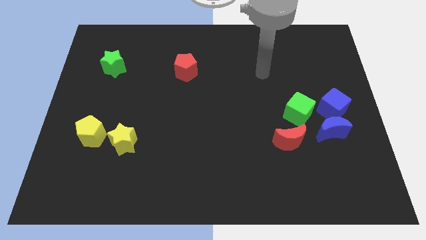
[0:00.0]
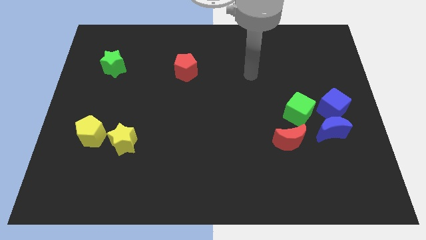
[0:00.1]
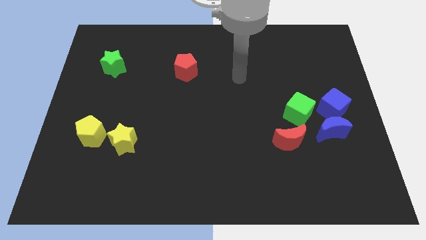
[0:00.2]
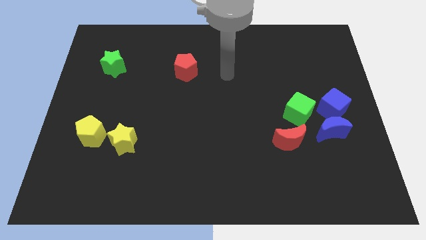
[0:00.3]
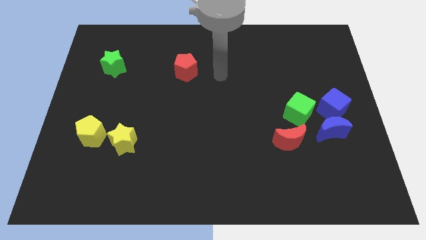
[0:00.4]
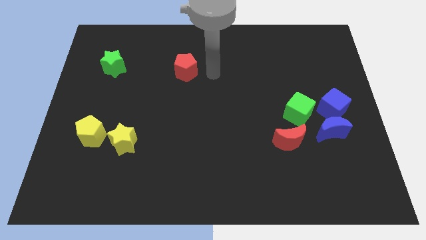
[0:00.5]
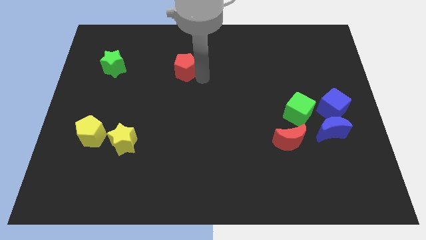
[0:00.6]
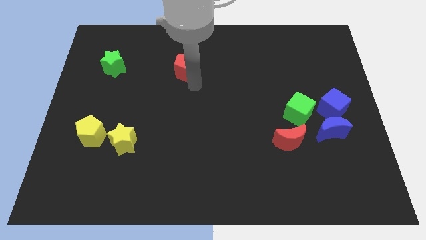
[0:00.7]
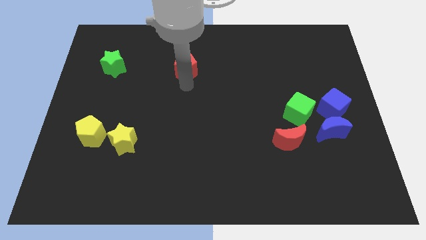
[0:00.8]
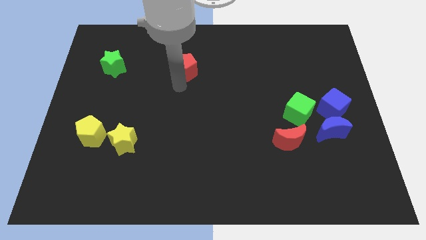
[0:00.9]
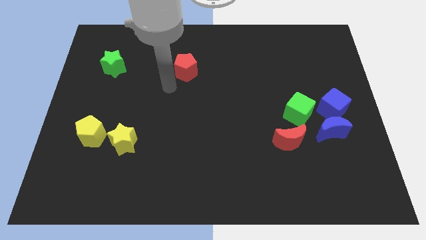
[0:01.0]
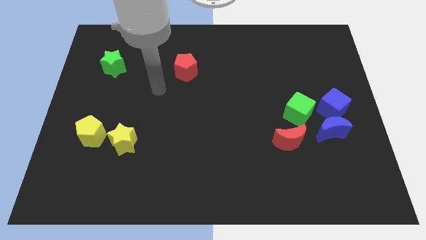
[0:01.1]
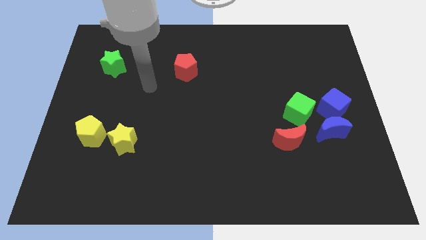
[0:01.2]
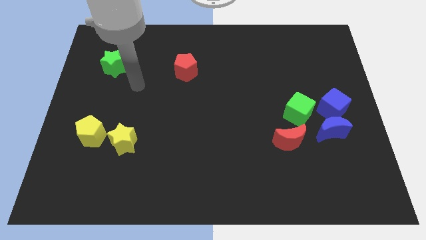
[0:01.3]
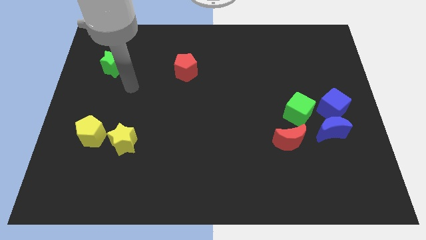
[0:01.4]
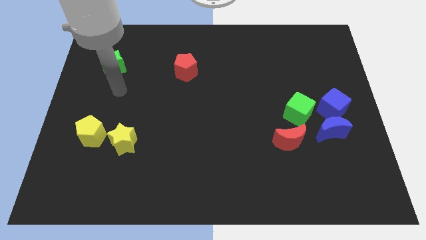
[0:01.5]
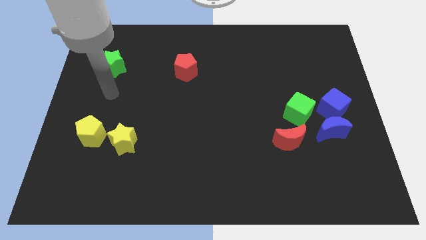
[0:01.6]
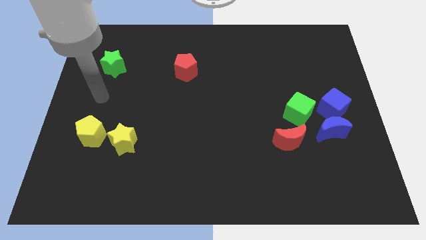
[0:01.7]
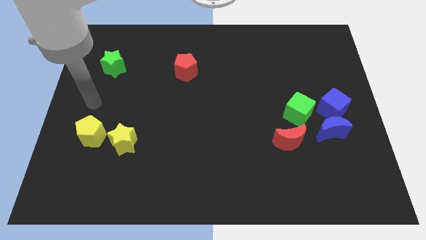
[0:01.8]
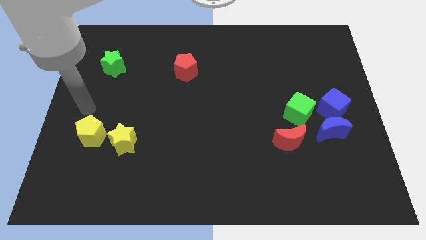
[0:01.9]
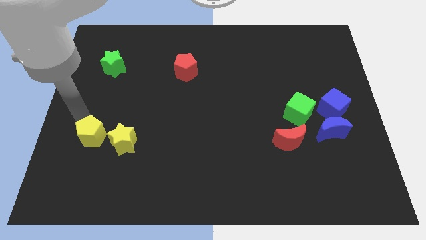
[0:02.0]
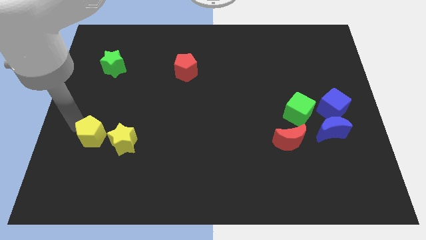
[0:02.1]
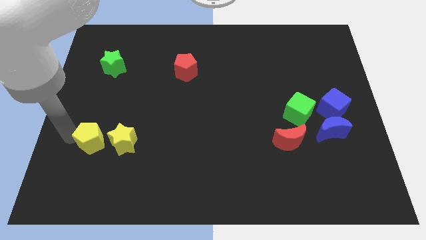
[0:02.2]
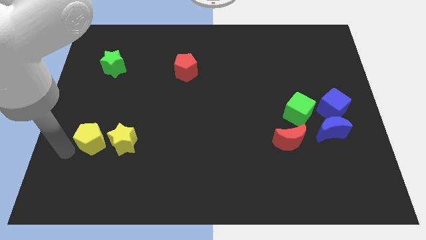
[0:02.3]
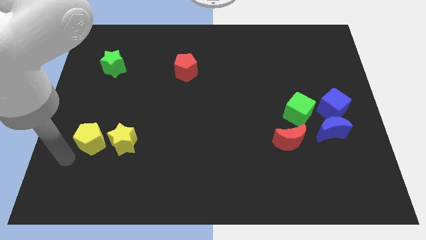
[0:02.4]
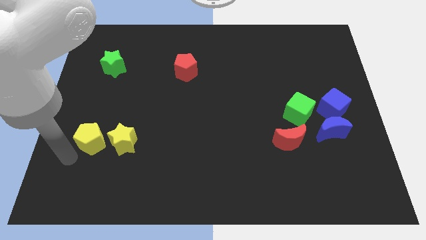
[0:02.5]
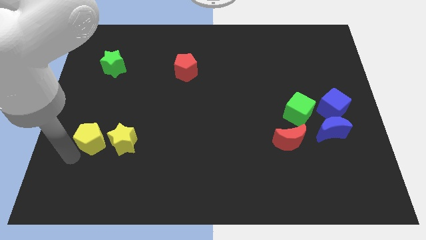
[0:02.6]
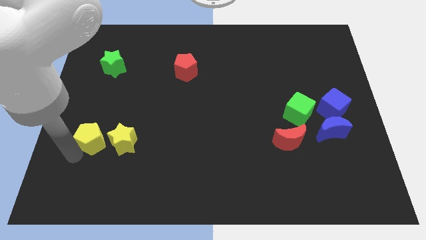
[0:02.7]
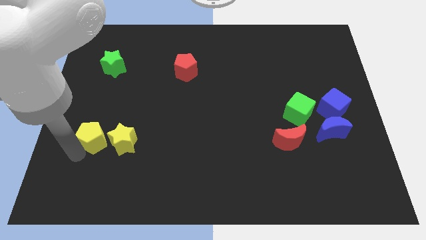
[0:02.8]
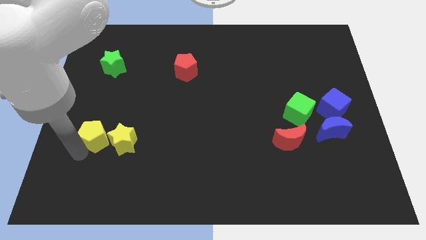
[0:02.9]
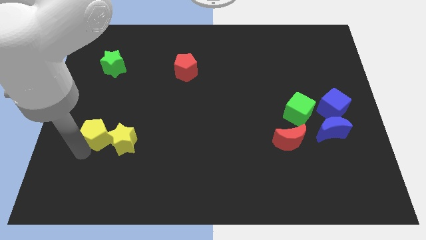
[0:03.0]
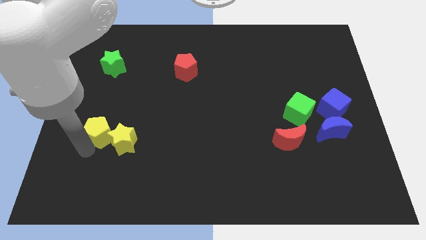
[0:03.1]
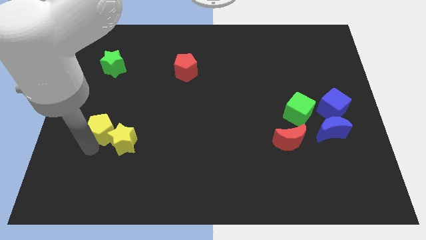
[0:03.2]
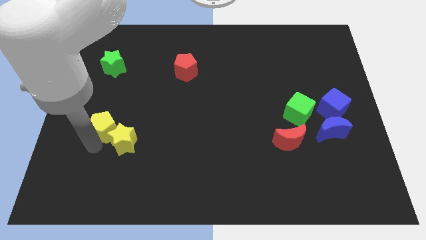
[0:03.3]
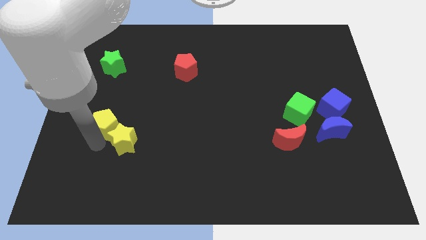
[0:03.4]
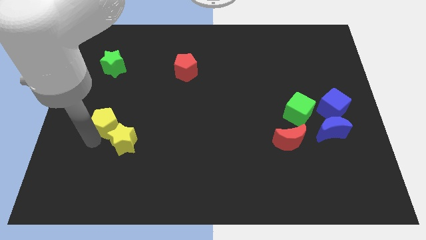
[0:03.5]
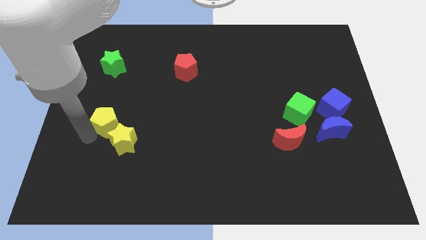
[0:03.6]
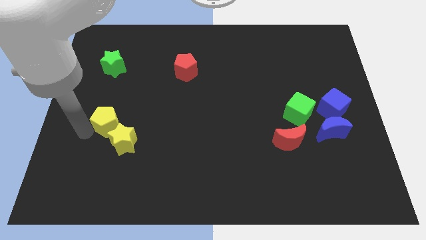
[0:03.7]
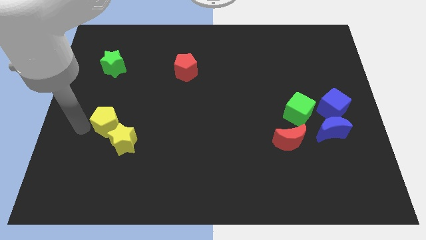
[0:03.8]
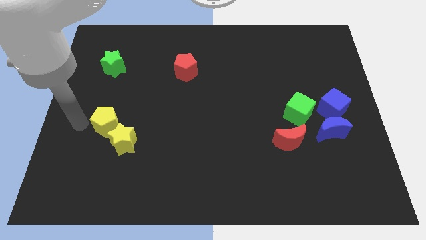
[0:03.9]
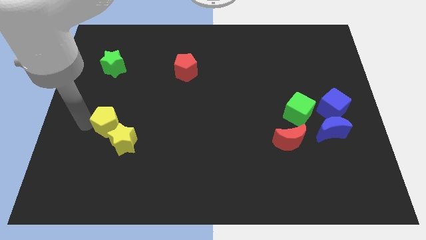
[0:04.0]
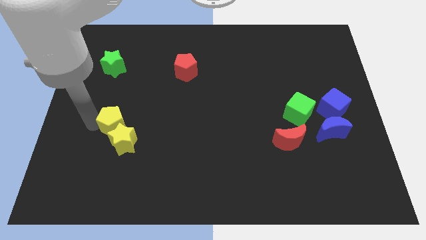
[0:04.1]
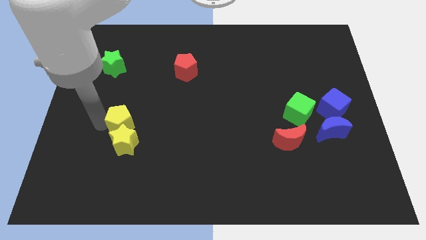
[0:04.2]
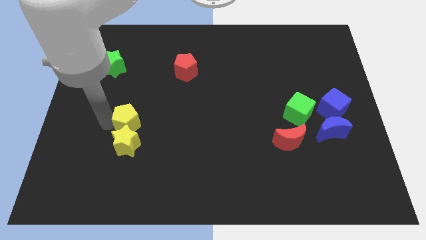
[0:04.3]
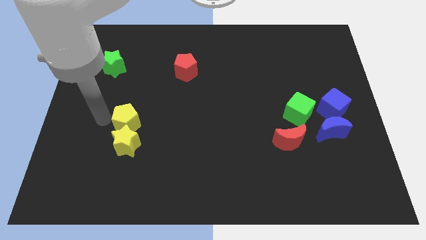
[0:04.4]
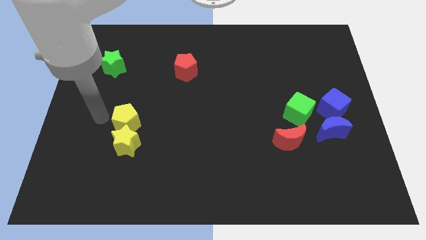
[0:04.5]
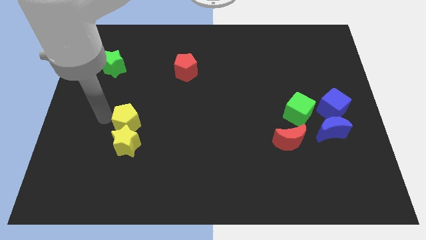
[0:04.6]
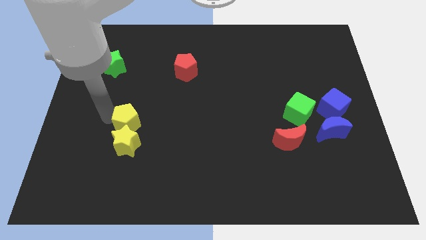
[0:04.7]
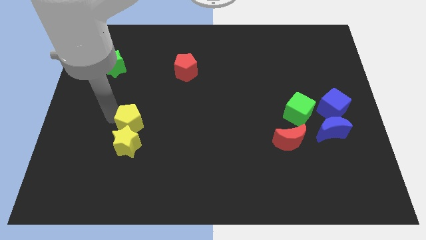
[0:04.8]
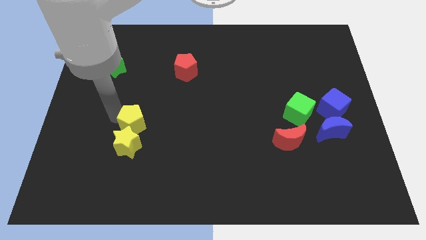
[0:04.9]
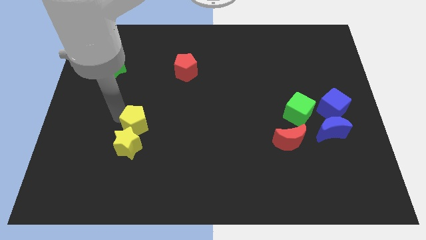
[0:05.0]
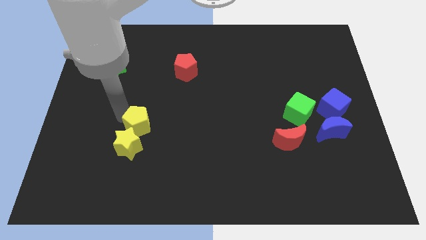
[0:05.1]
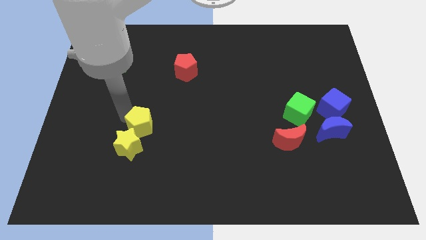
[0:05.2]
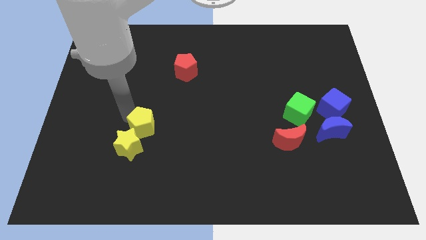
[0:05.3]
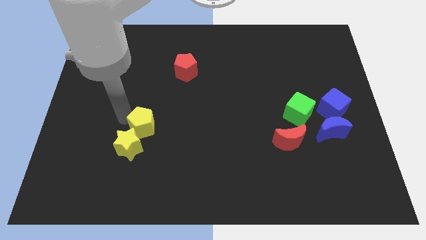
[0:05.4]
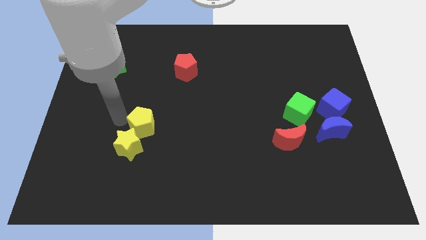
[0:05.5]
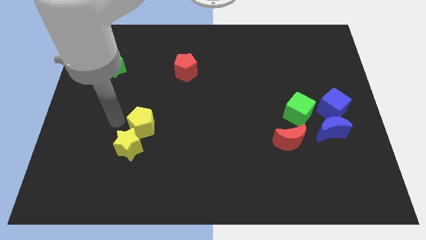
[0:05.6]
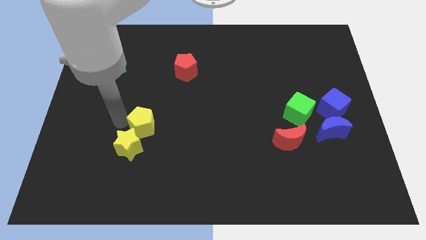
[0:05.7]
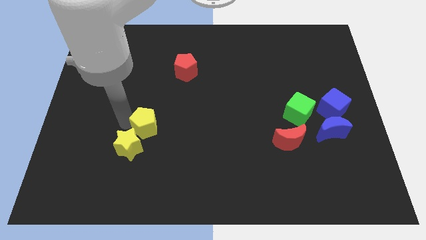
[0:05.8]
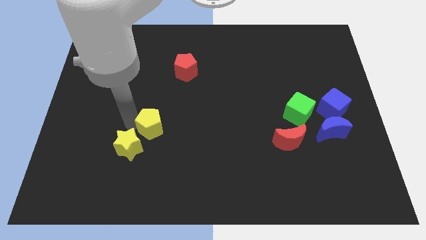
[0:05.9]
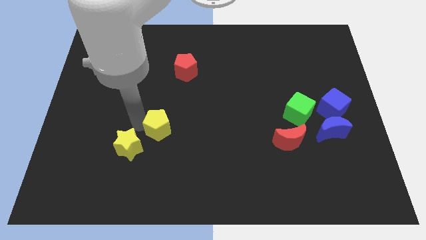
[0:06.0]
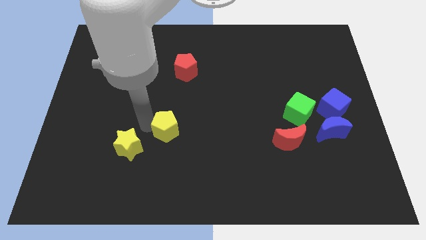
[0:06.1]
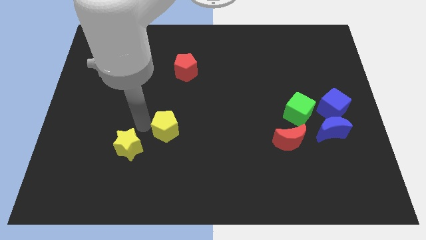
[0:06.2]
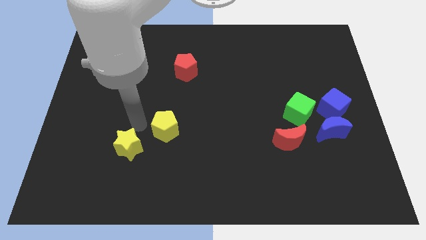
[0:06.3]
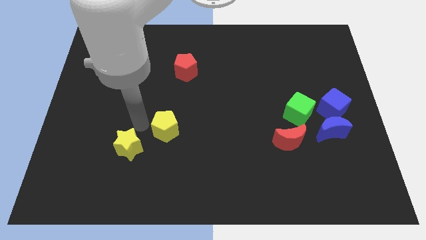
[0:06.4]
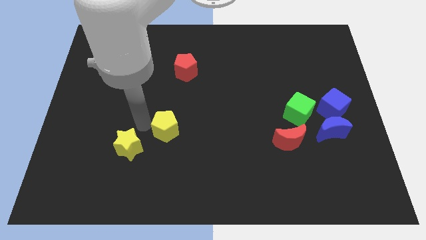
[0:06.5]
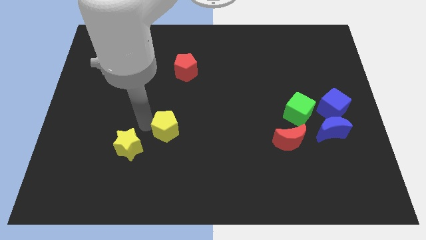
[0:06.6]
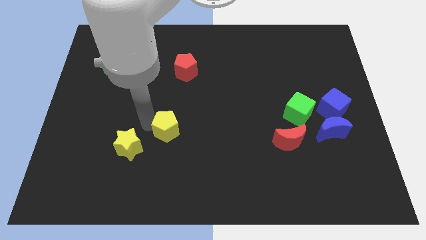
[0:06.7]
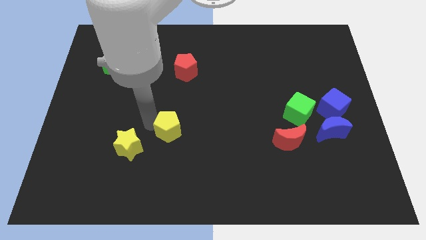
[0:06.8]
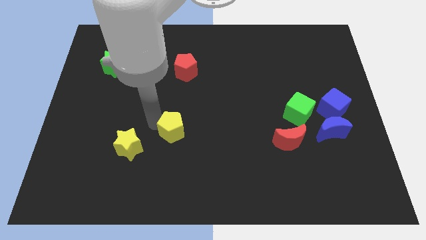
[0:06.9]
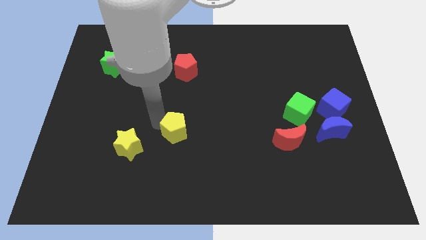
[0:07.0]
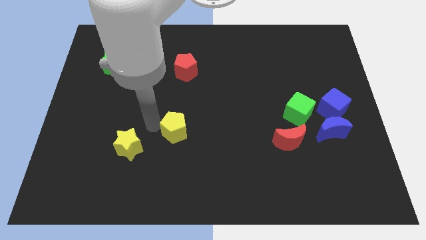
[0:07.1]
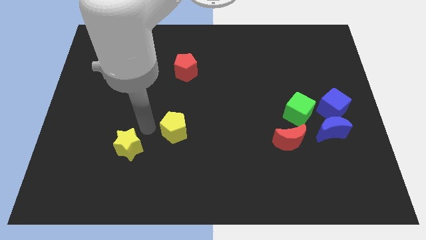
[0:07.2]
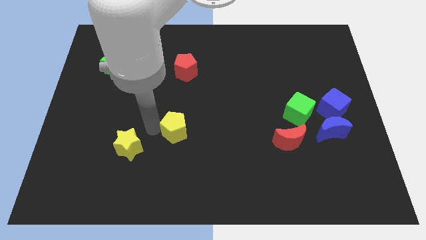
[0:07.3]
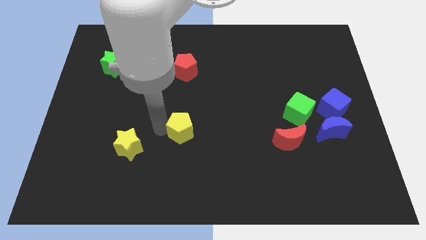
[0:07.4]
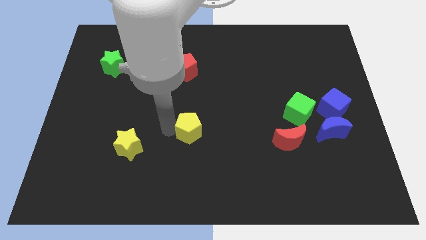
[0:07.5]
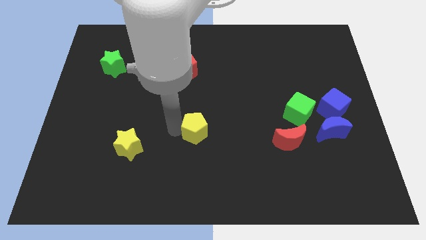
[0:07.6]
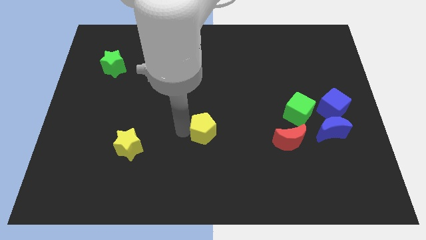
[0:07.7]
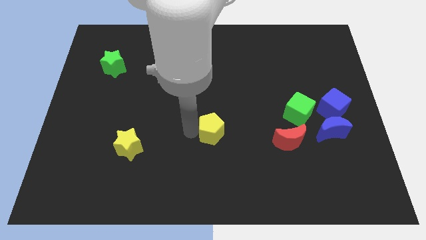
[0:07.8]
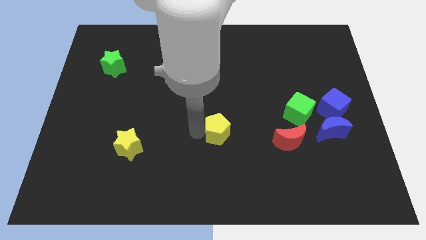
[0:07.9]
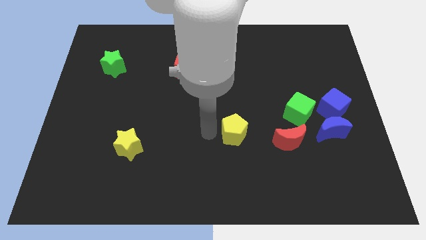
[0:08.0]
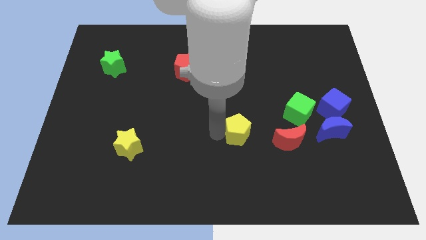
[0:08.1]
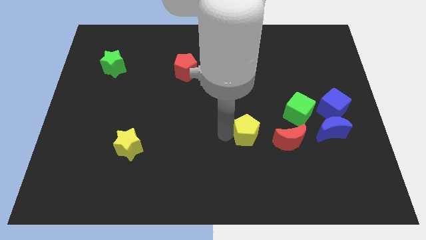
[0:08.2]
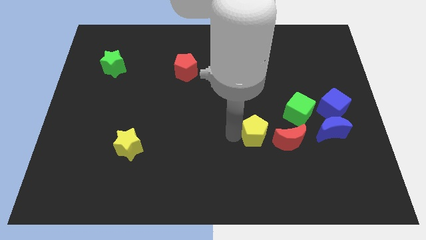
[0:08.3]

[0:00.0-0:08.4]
push the yellow pentagon to the top left of the red moon
